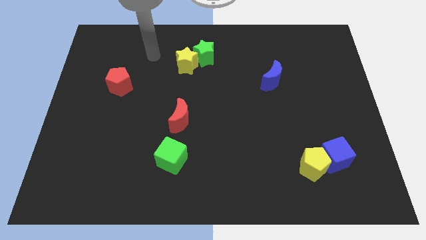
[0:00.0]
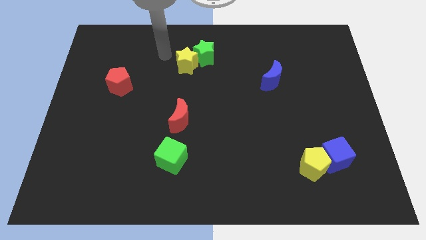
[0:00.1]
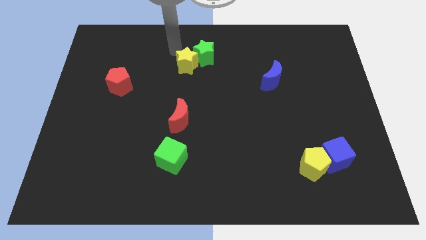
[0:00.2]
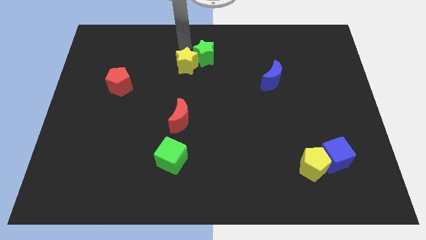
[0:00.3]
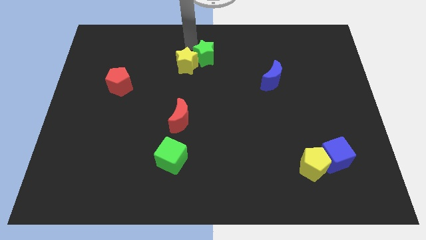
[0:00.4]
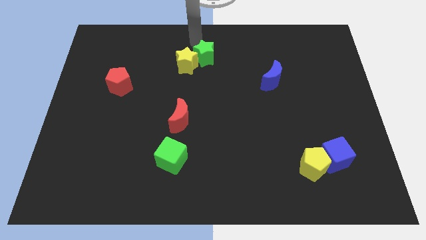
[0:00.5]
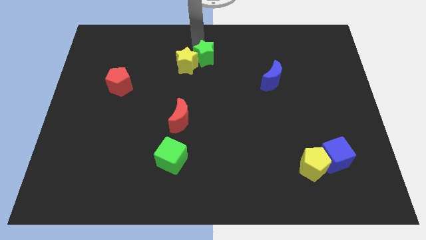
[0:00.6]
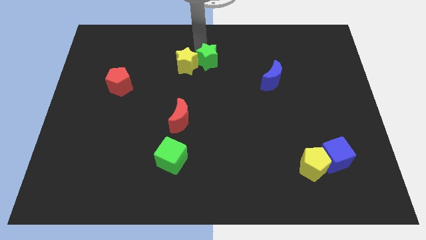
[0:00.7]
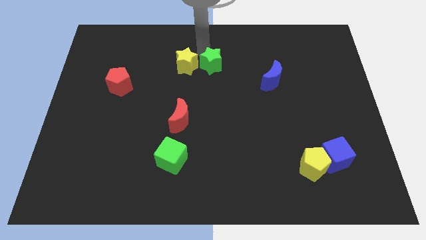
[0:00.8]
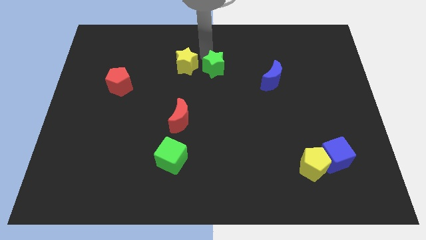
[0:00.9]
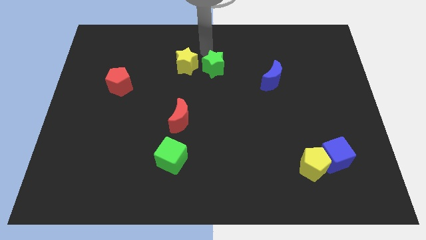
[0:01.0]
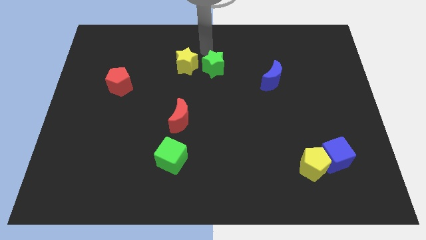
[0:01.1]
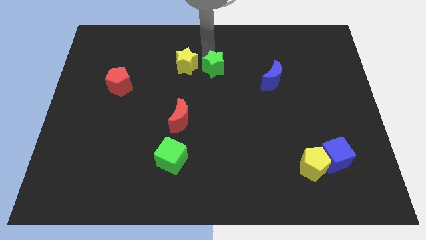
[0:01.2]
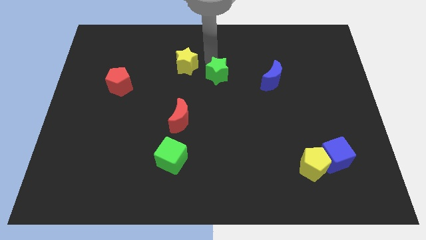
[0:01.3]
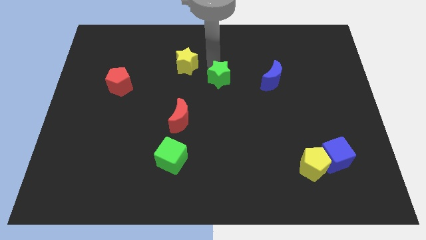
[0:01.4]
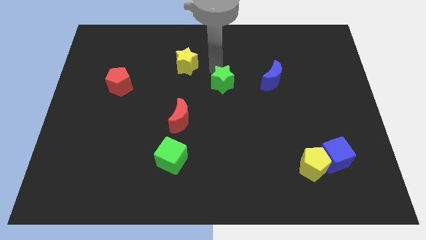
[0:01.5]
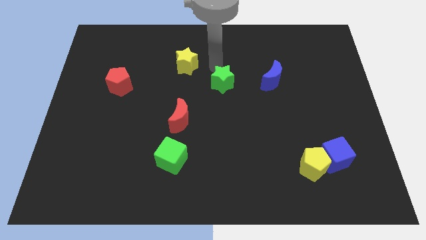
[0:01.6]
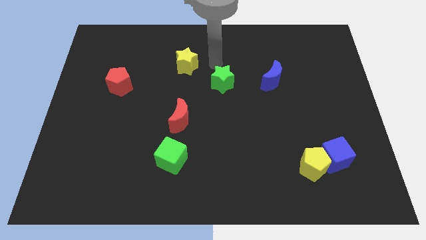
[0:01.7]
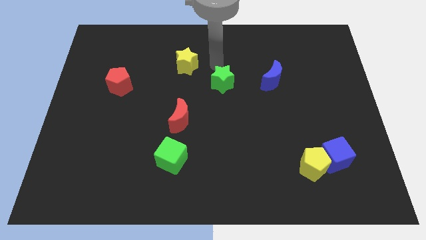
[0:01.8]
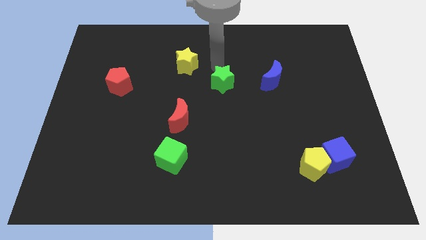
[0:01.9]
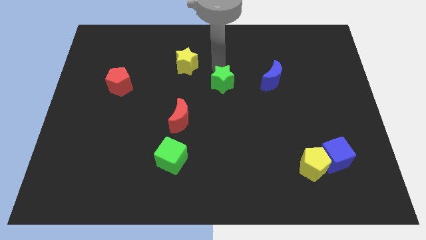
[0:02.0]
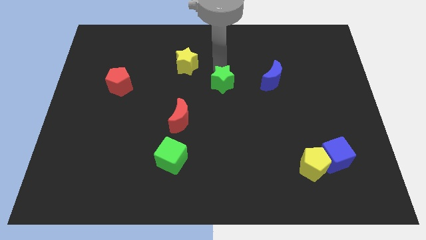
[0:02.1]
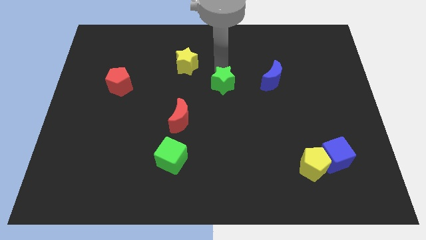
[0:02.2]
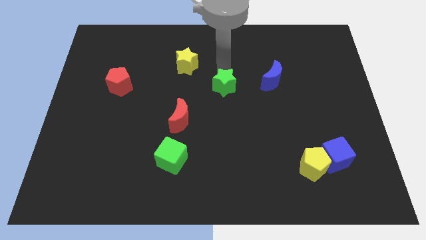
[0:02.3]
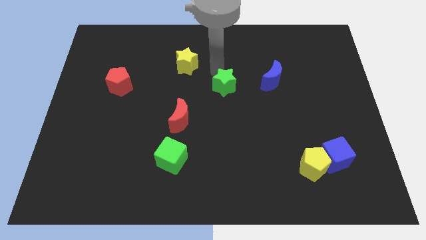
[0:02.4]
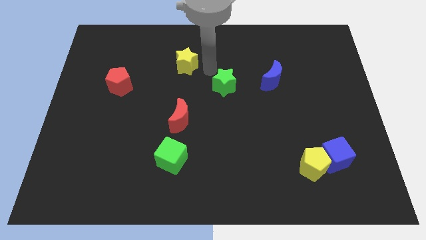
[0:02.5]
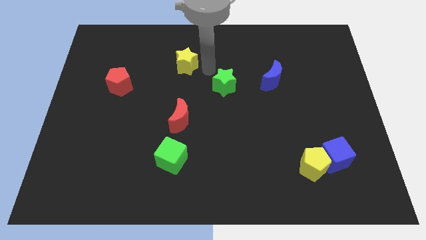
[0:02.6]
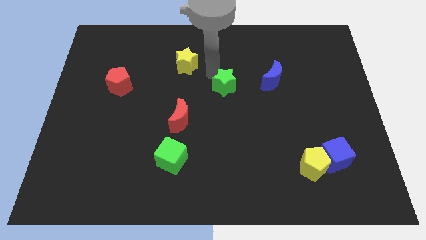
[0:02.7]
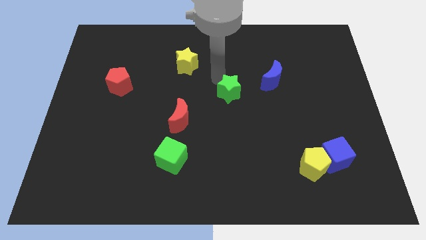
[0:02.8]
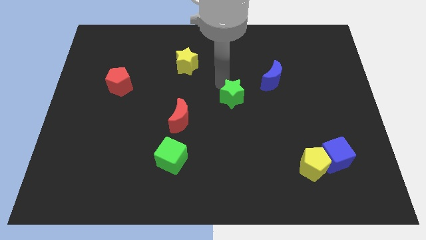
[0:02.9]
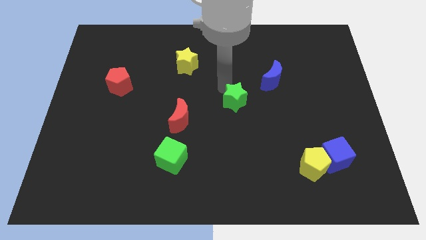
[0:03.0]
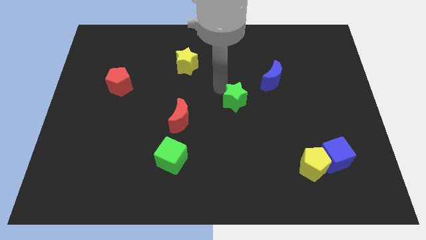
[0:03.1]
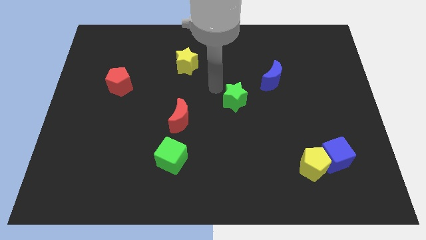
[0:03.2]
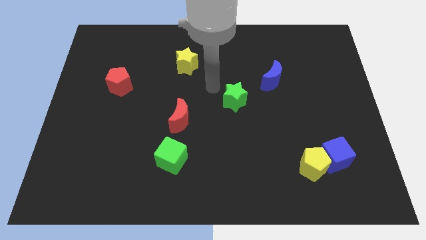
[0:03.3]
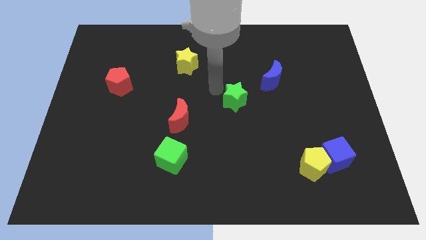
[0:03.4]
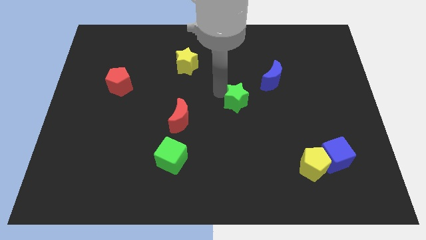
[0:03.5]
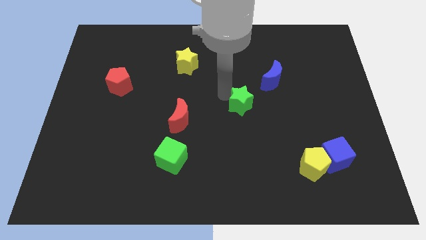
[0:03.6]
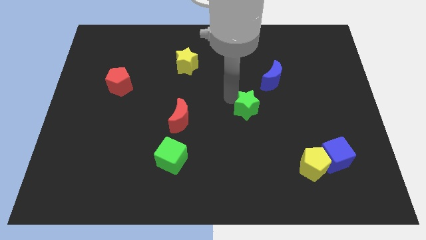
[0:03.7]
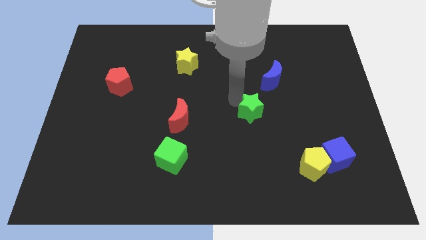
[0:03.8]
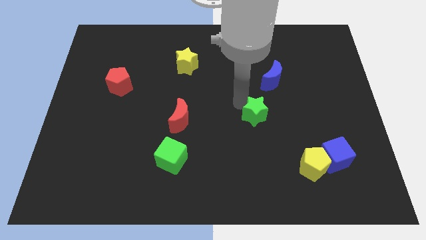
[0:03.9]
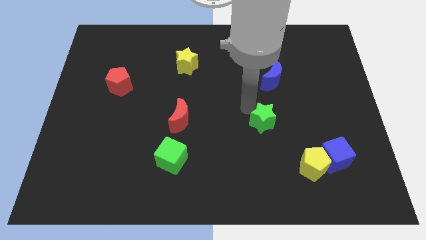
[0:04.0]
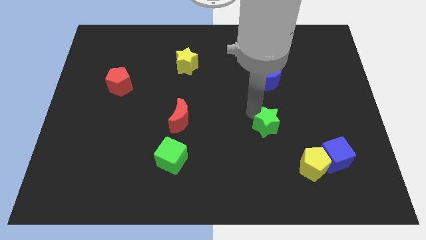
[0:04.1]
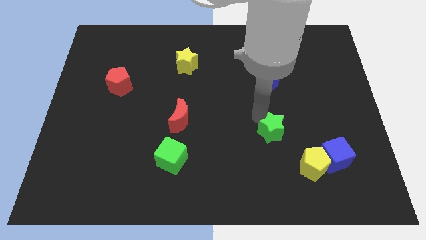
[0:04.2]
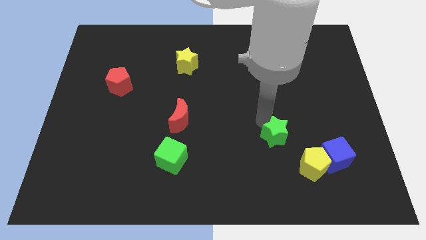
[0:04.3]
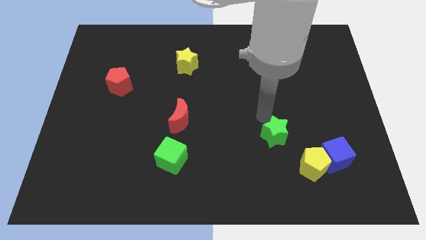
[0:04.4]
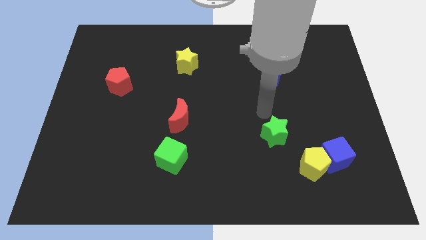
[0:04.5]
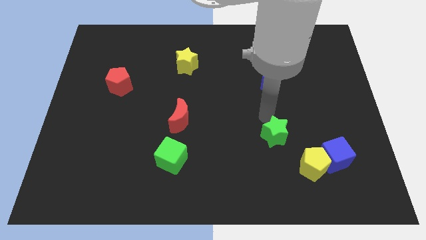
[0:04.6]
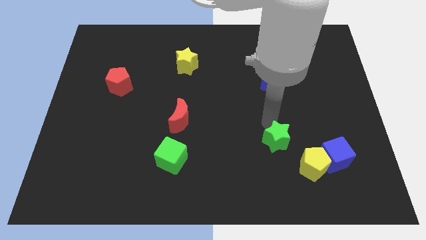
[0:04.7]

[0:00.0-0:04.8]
put the green star left of the blue cube

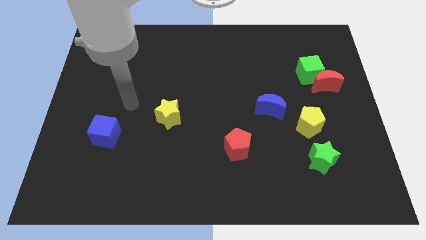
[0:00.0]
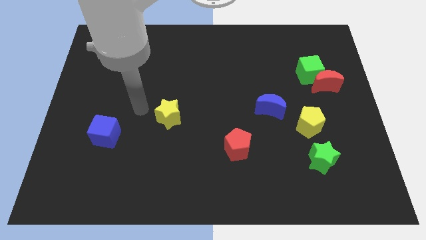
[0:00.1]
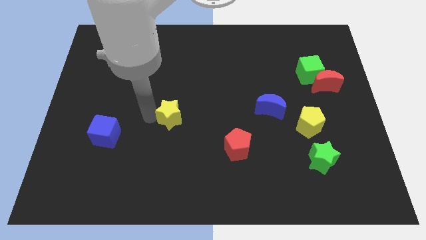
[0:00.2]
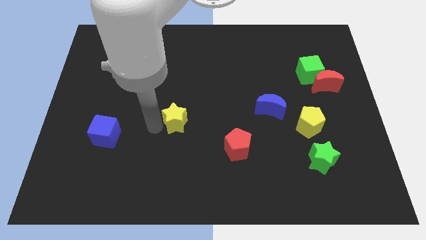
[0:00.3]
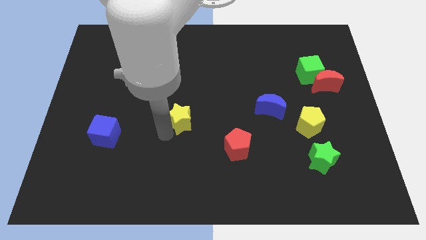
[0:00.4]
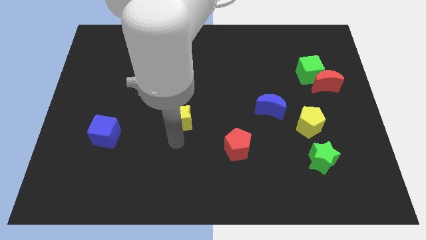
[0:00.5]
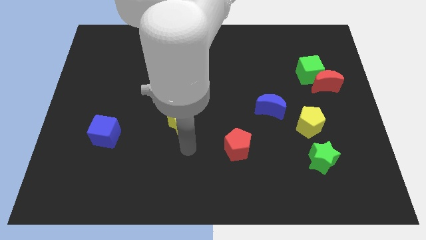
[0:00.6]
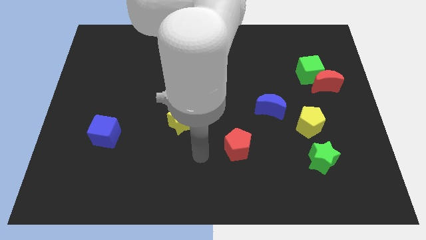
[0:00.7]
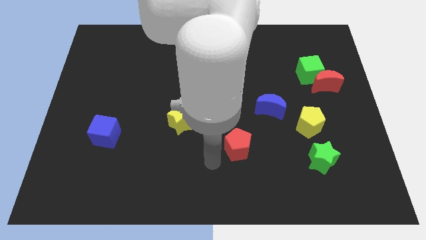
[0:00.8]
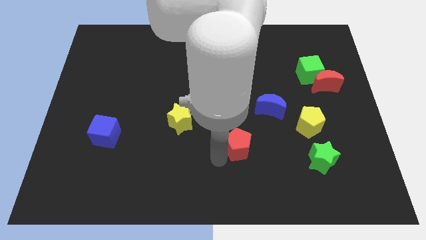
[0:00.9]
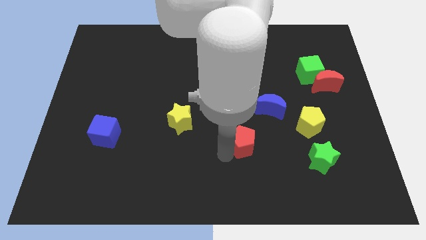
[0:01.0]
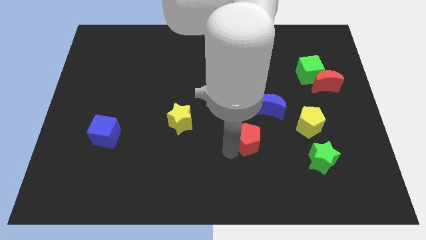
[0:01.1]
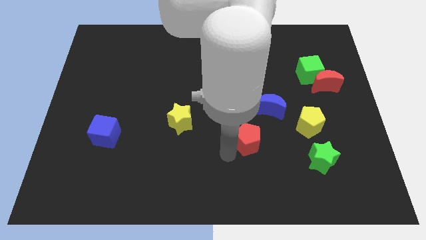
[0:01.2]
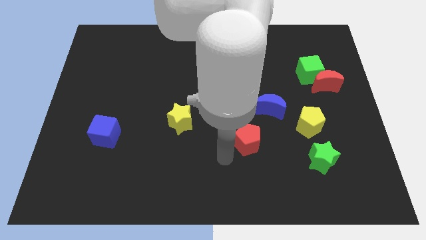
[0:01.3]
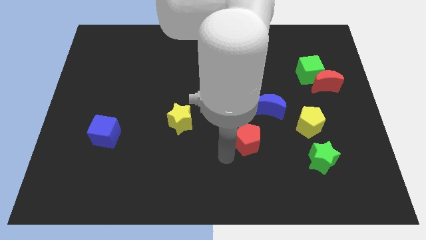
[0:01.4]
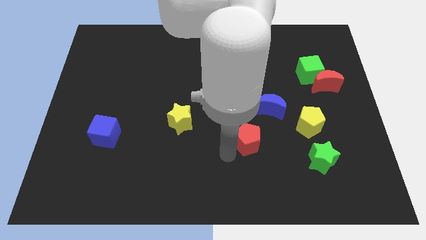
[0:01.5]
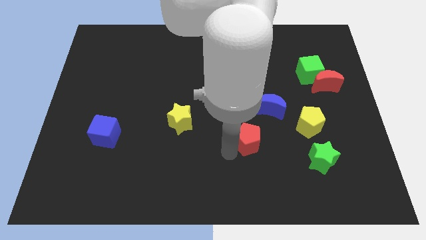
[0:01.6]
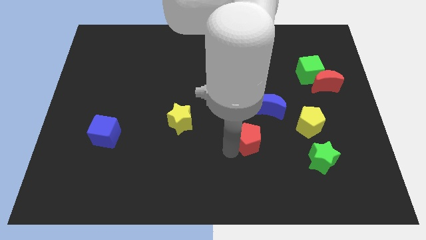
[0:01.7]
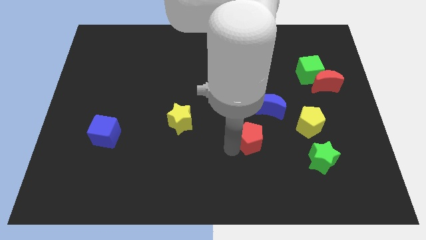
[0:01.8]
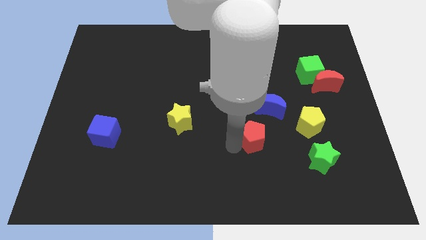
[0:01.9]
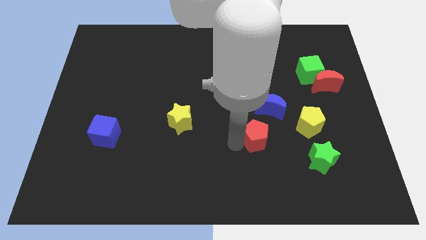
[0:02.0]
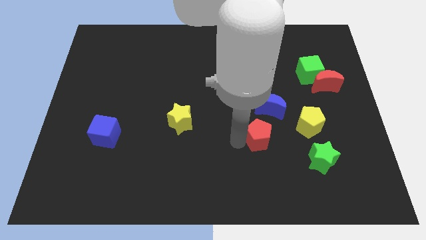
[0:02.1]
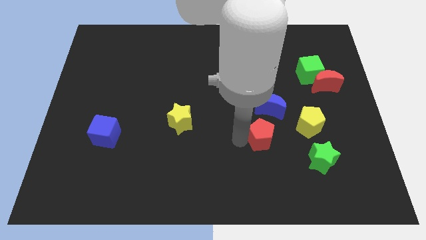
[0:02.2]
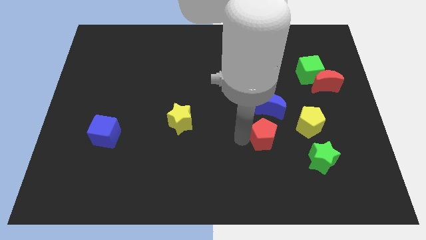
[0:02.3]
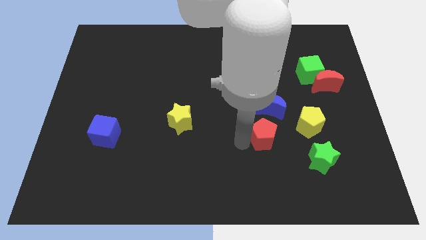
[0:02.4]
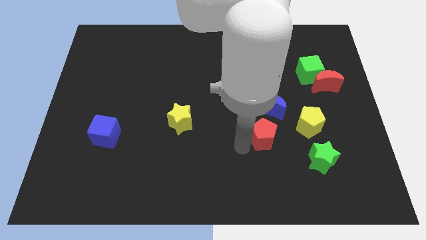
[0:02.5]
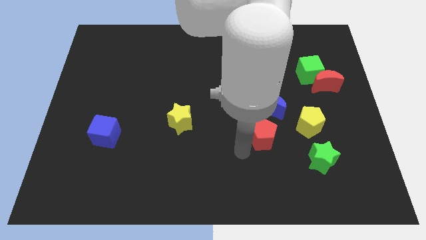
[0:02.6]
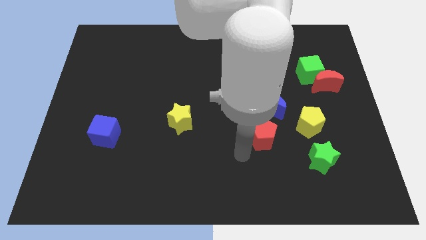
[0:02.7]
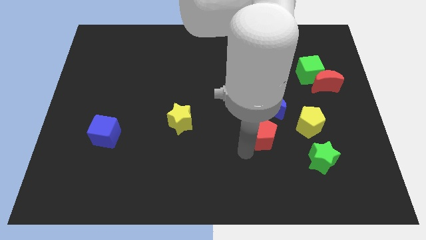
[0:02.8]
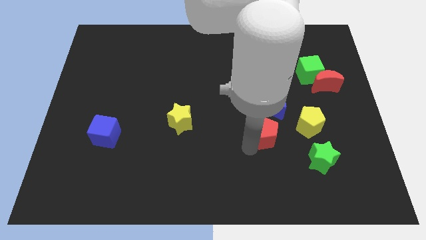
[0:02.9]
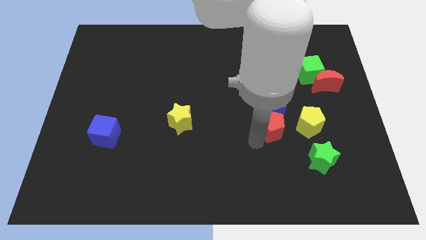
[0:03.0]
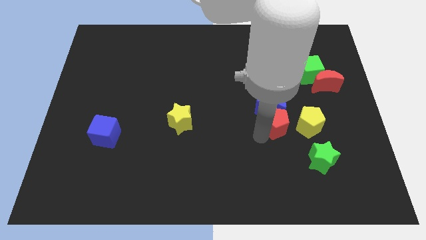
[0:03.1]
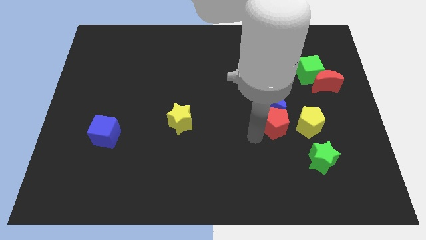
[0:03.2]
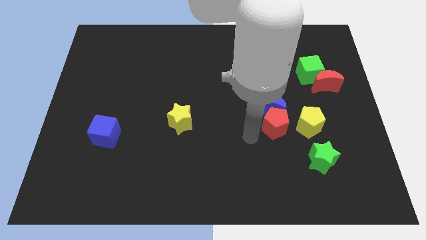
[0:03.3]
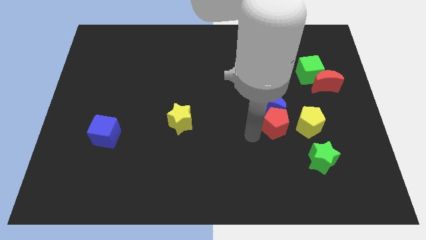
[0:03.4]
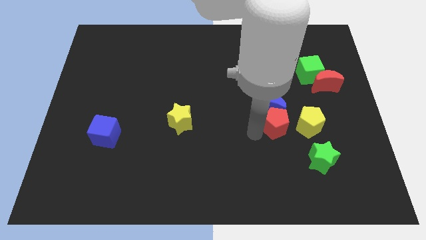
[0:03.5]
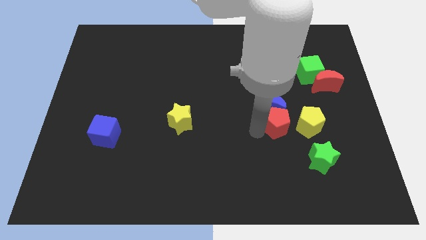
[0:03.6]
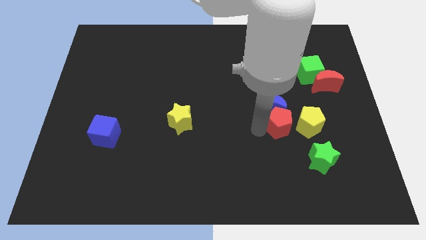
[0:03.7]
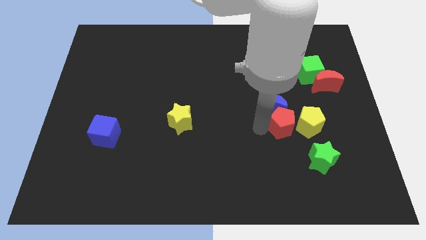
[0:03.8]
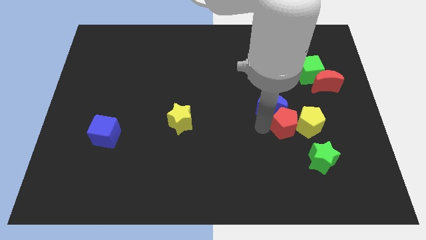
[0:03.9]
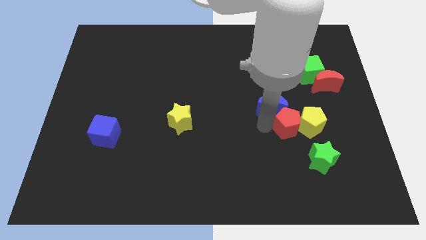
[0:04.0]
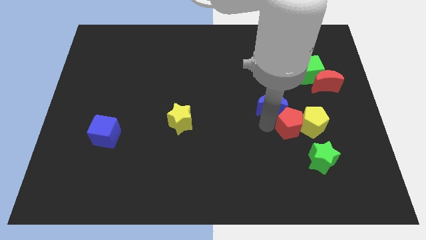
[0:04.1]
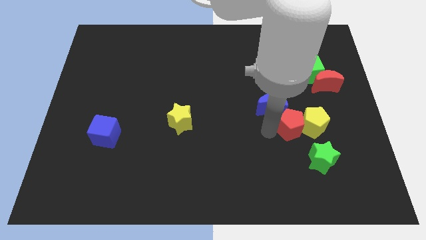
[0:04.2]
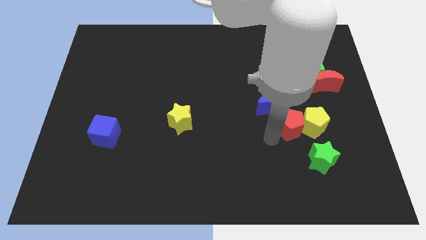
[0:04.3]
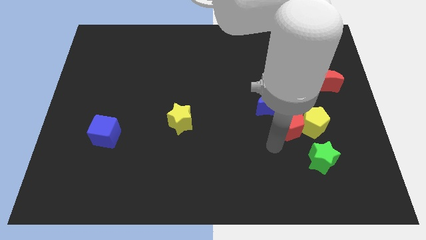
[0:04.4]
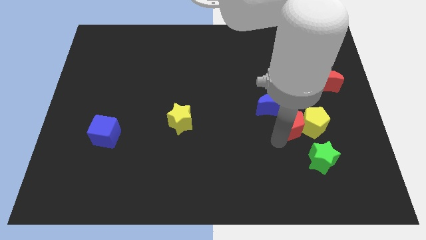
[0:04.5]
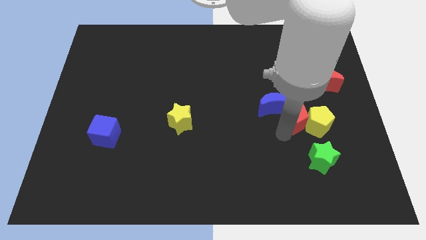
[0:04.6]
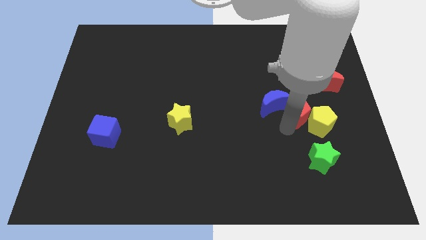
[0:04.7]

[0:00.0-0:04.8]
slide the red pentagon to the bottom left side of the red moon
